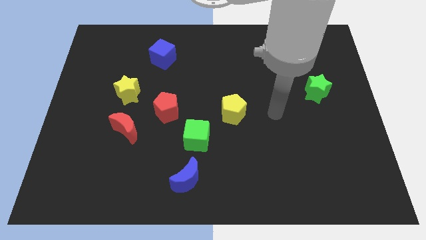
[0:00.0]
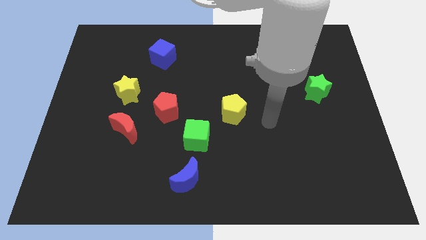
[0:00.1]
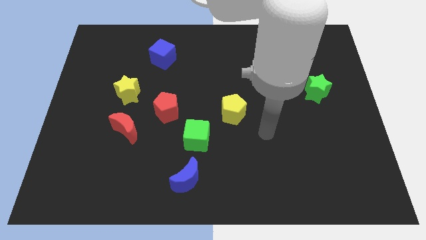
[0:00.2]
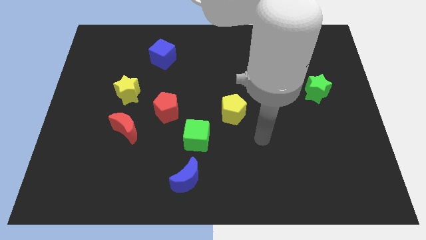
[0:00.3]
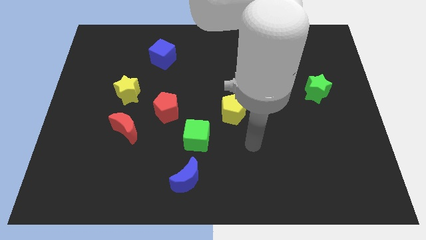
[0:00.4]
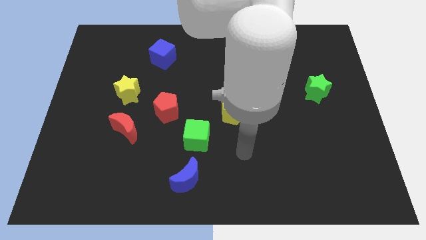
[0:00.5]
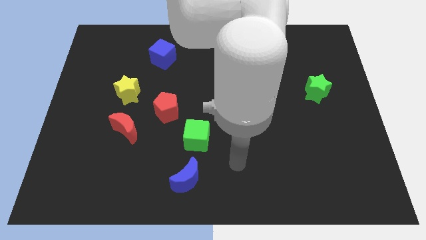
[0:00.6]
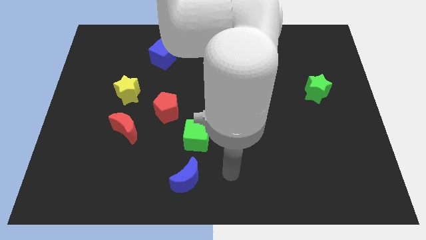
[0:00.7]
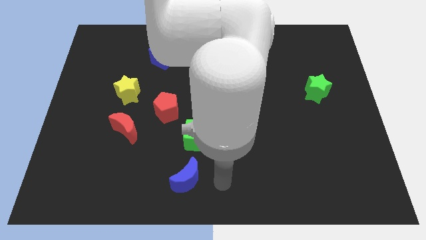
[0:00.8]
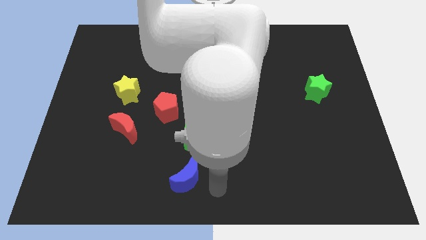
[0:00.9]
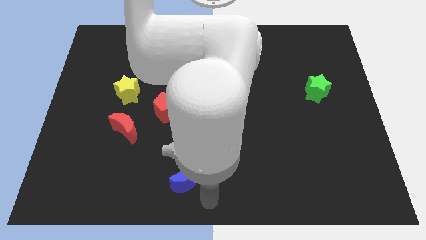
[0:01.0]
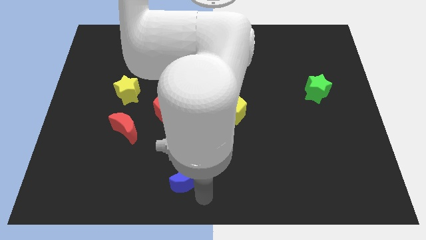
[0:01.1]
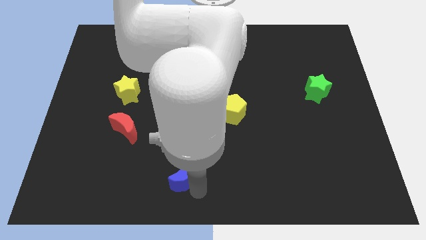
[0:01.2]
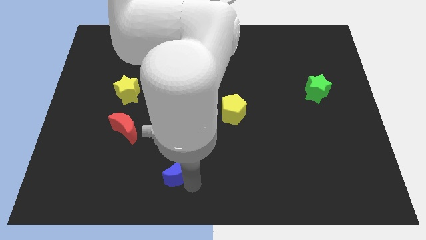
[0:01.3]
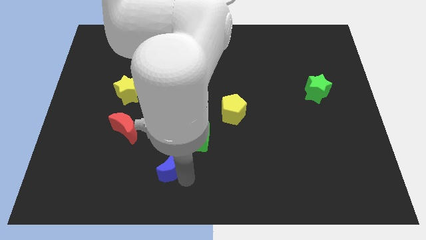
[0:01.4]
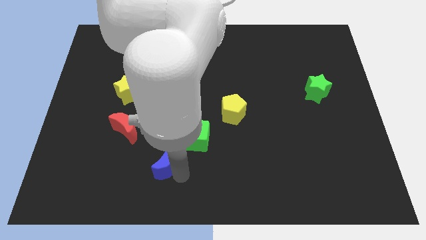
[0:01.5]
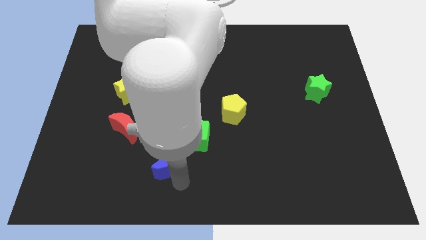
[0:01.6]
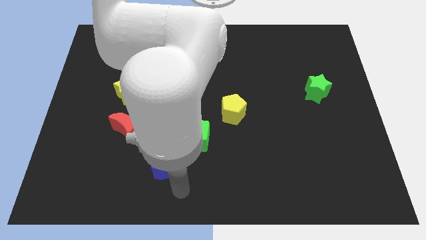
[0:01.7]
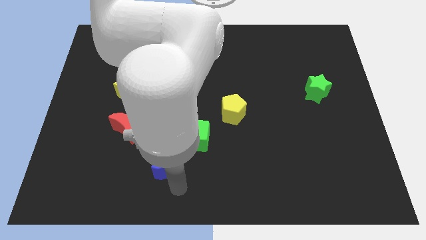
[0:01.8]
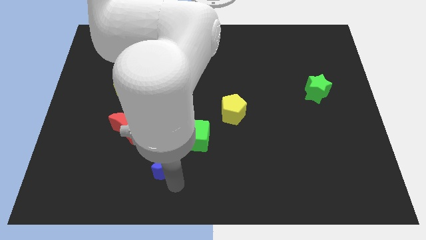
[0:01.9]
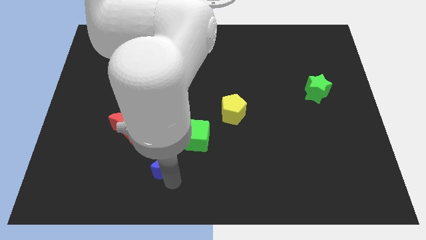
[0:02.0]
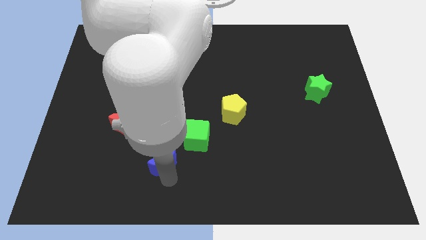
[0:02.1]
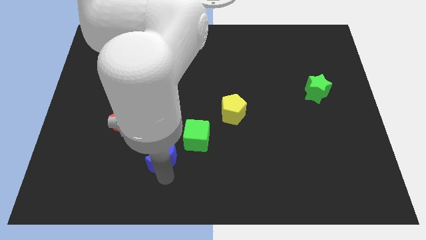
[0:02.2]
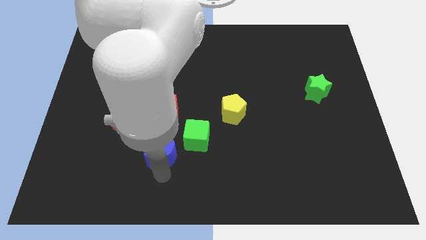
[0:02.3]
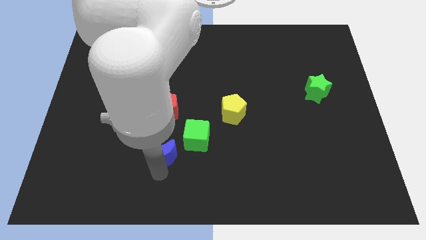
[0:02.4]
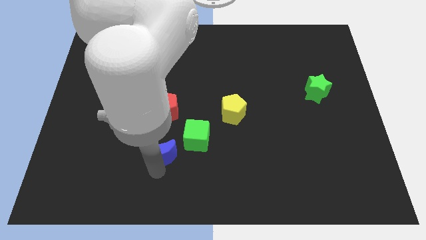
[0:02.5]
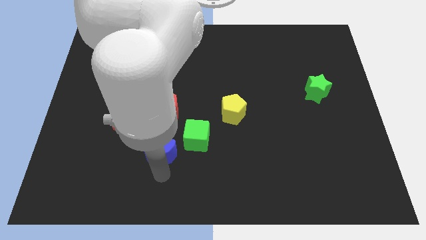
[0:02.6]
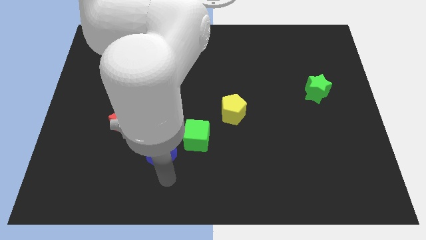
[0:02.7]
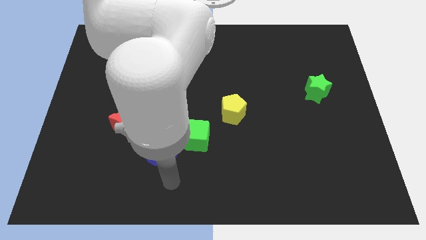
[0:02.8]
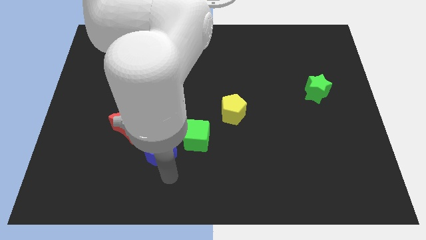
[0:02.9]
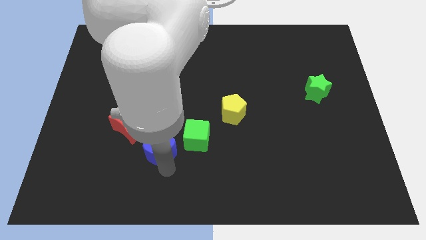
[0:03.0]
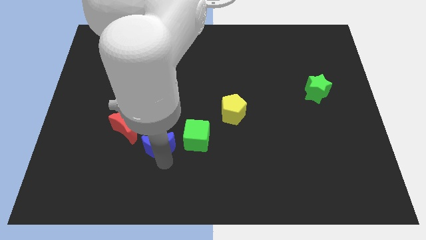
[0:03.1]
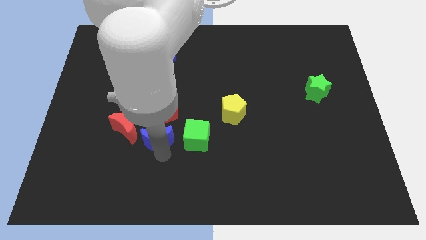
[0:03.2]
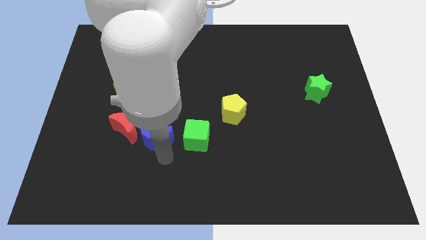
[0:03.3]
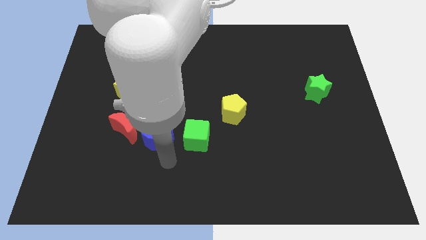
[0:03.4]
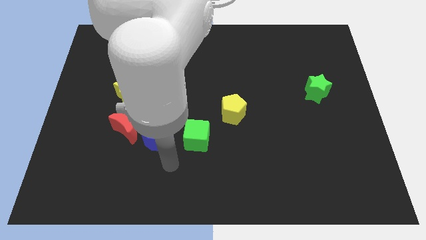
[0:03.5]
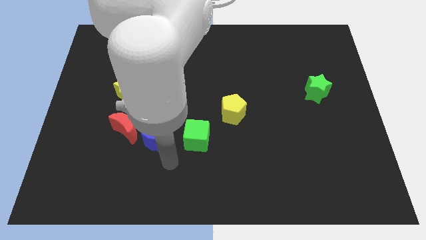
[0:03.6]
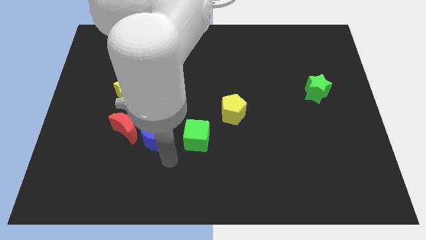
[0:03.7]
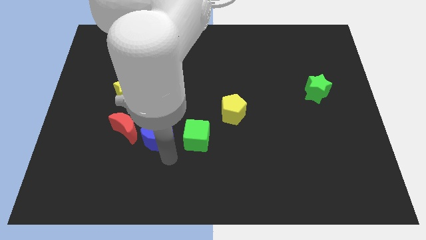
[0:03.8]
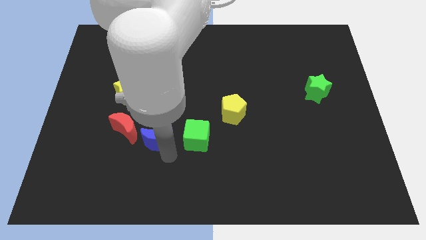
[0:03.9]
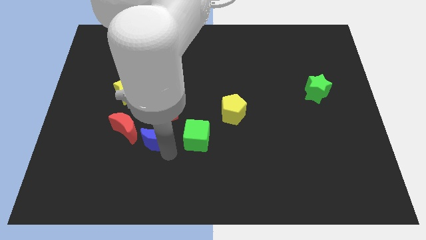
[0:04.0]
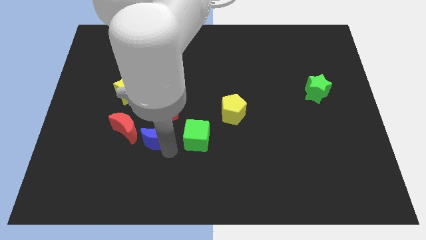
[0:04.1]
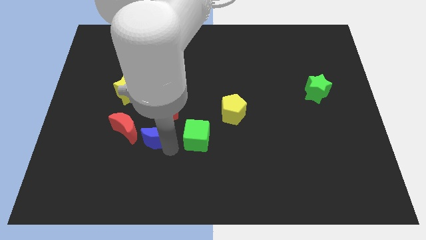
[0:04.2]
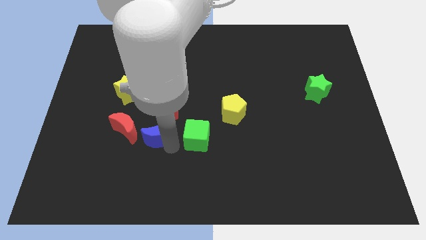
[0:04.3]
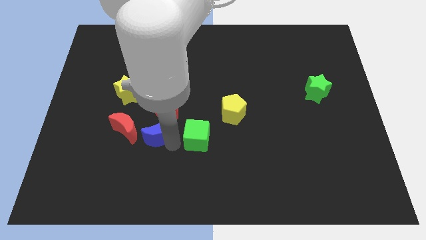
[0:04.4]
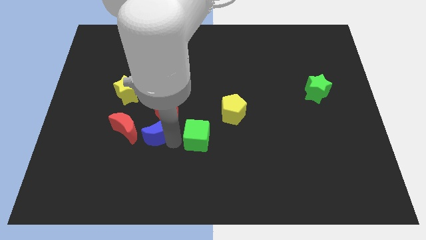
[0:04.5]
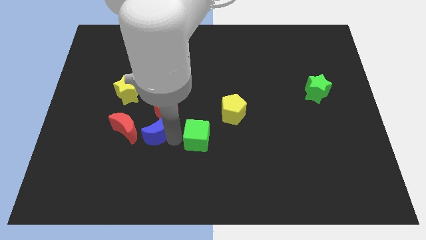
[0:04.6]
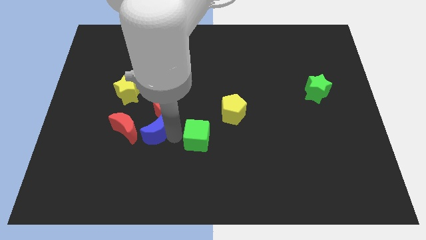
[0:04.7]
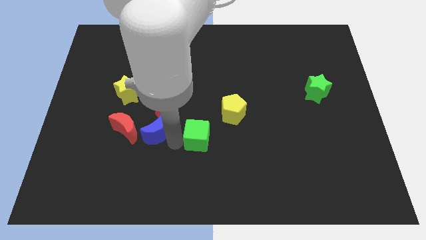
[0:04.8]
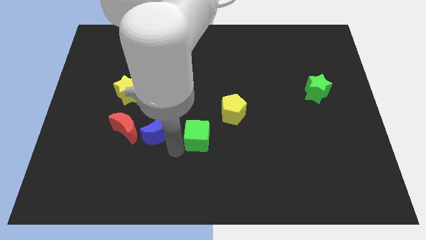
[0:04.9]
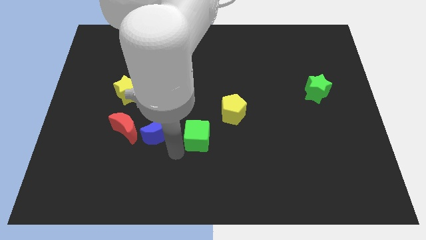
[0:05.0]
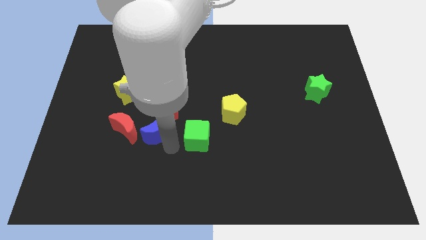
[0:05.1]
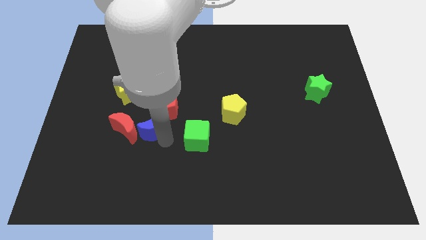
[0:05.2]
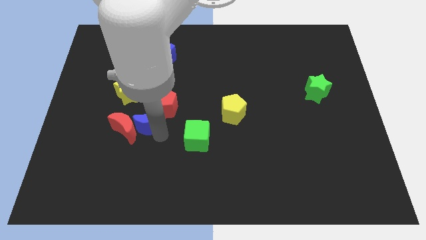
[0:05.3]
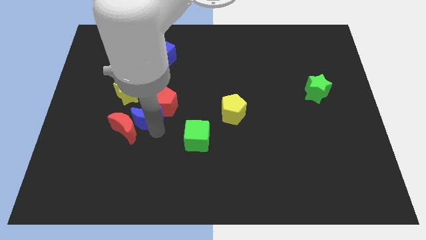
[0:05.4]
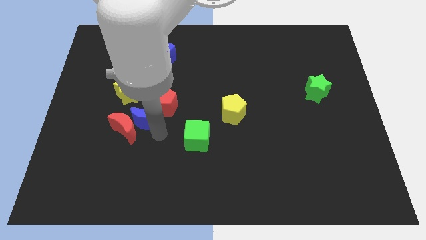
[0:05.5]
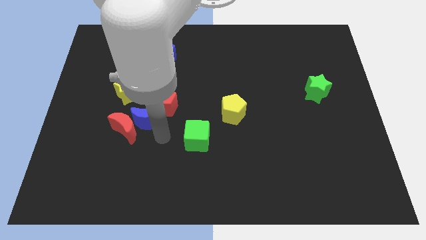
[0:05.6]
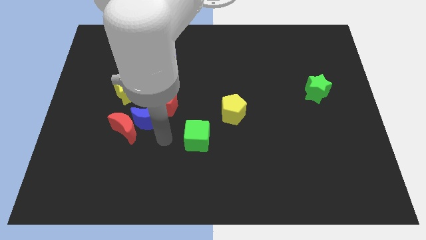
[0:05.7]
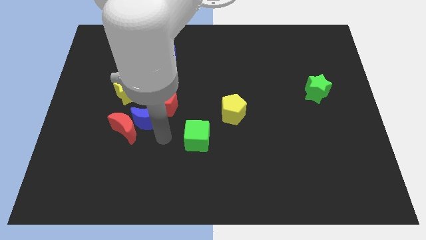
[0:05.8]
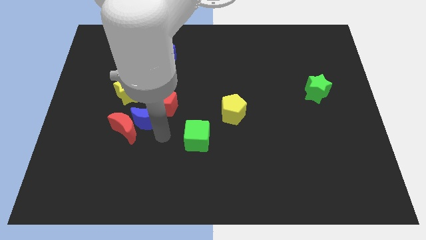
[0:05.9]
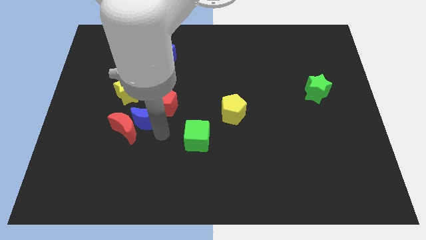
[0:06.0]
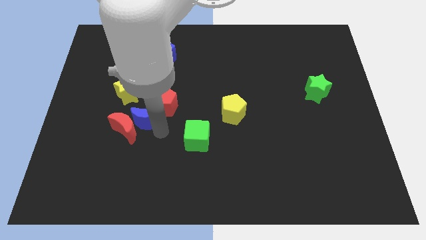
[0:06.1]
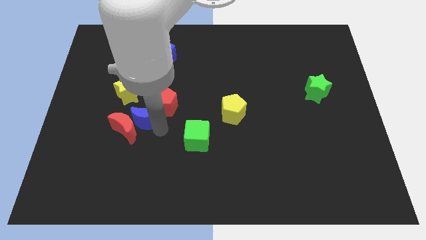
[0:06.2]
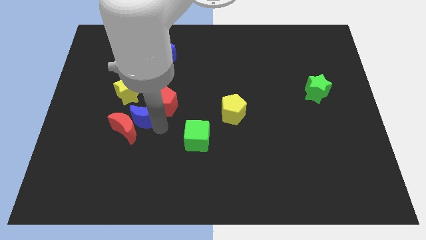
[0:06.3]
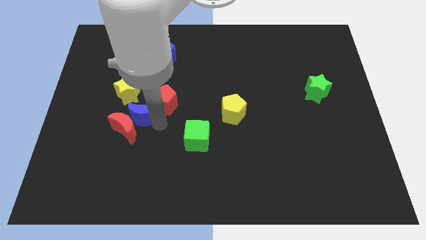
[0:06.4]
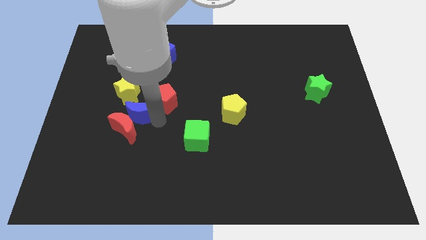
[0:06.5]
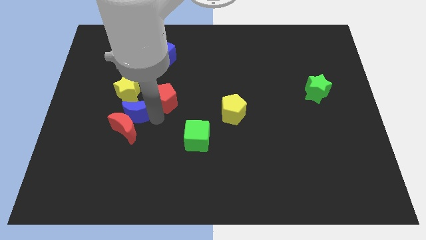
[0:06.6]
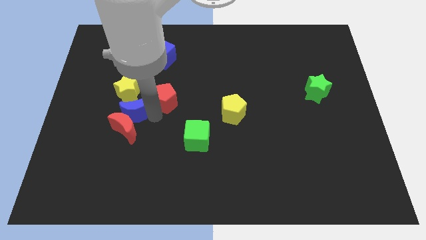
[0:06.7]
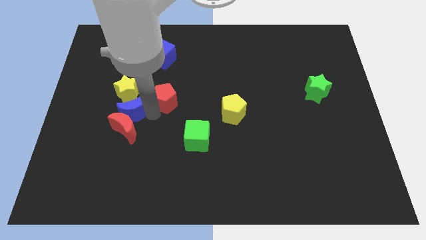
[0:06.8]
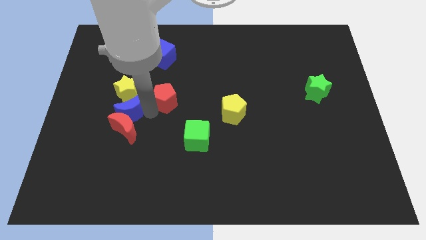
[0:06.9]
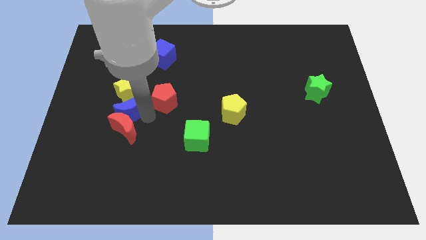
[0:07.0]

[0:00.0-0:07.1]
slide the blue moon close to the yellow star
